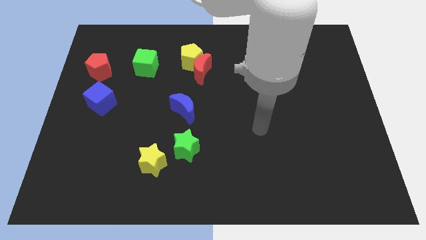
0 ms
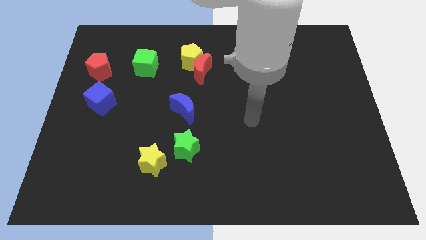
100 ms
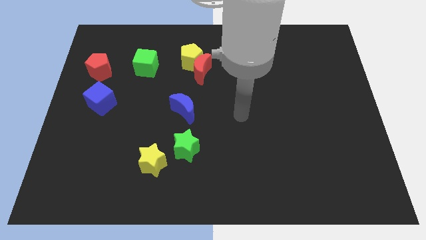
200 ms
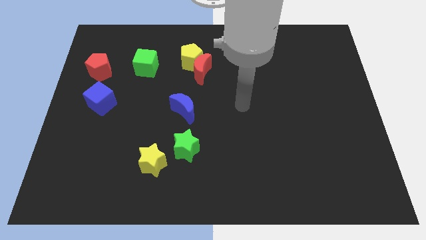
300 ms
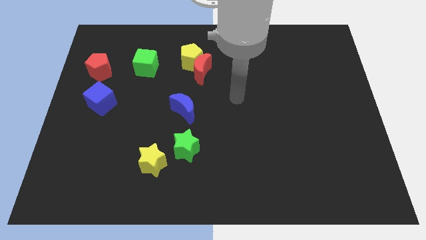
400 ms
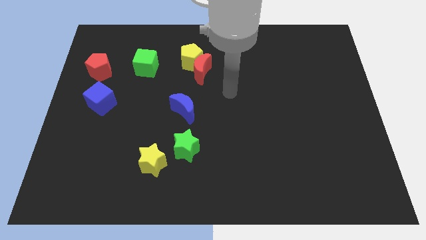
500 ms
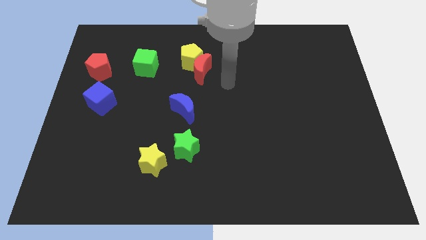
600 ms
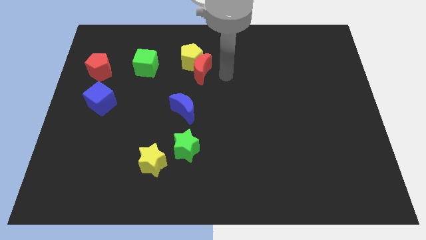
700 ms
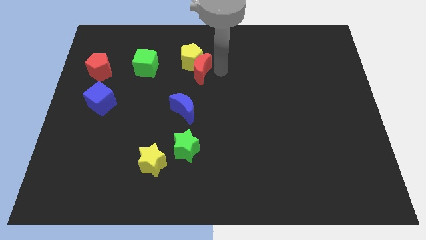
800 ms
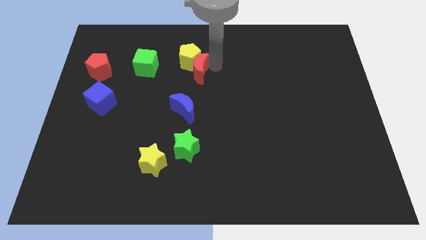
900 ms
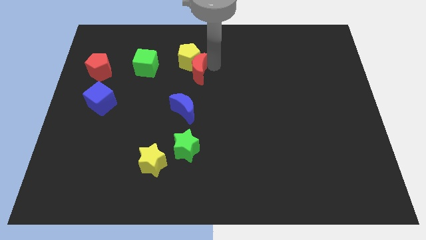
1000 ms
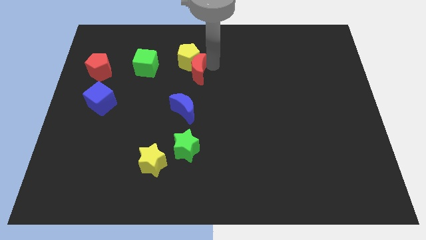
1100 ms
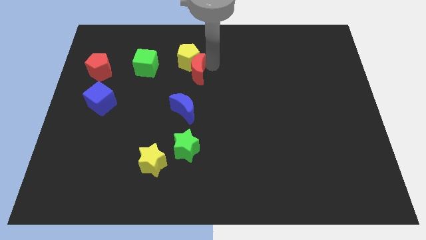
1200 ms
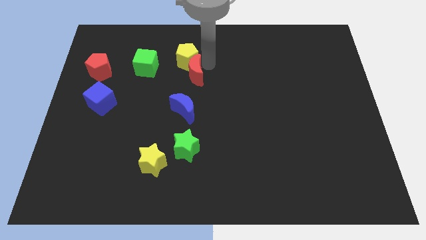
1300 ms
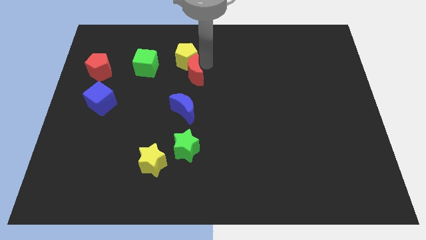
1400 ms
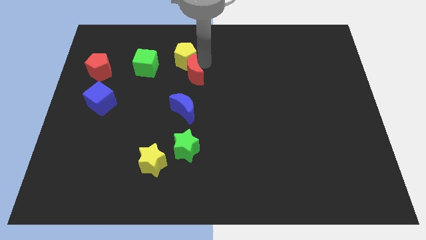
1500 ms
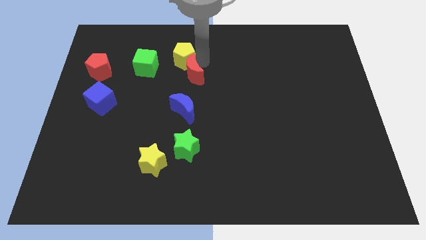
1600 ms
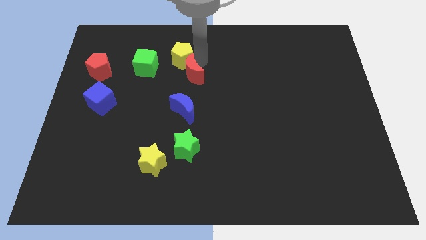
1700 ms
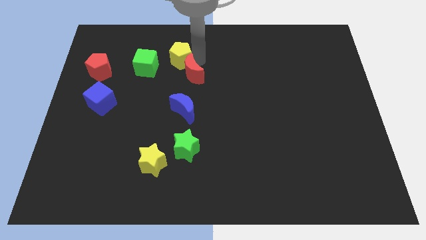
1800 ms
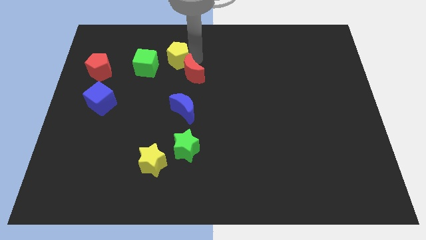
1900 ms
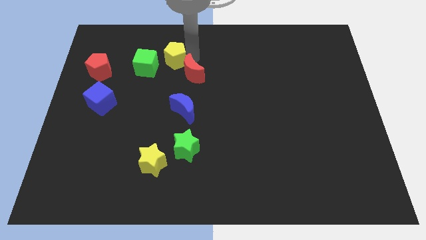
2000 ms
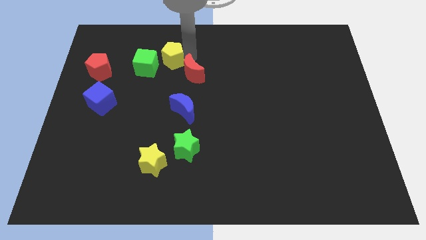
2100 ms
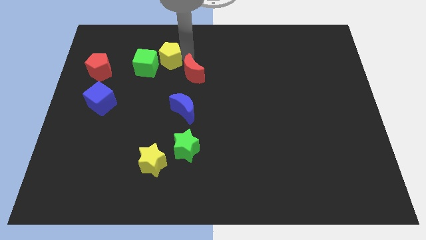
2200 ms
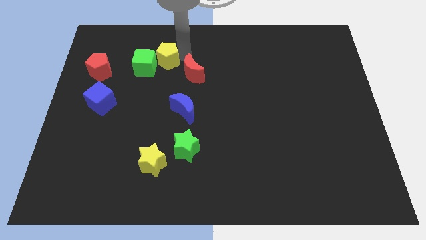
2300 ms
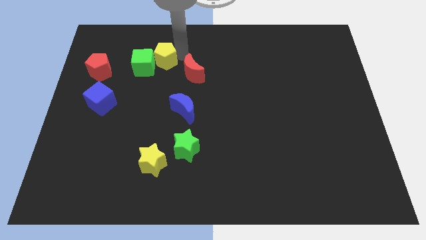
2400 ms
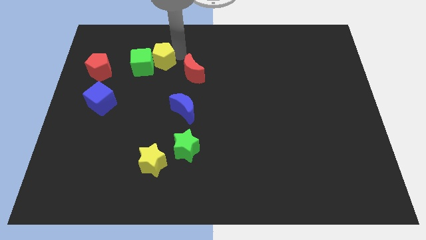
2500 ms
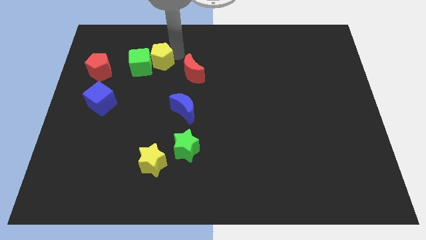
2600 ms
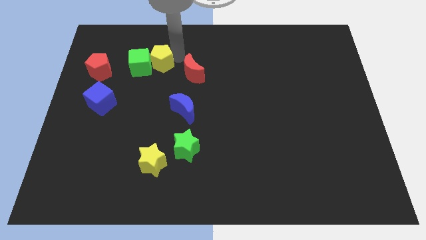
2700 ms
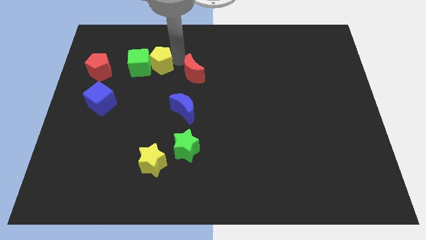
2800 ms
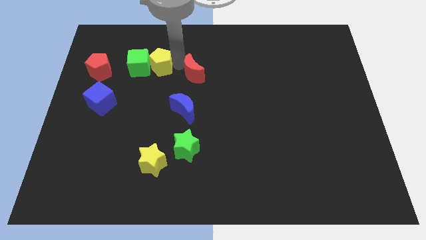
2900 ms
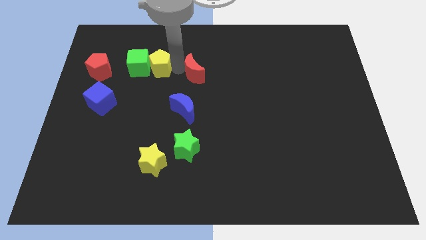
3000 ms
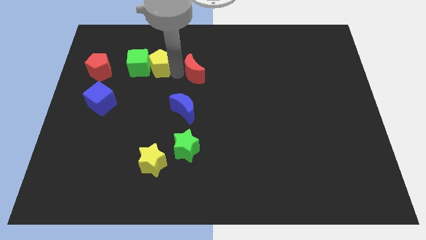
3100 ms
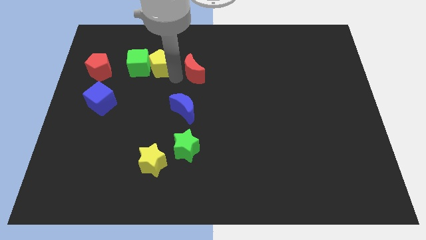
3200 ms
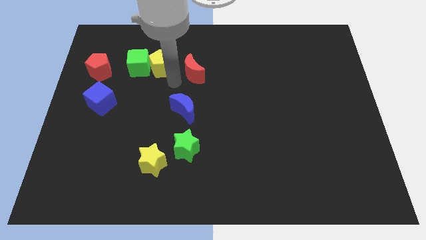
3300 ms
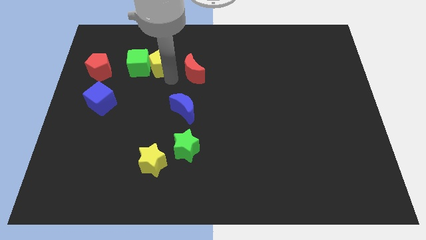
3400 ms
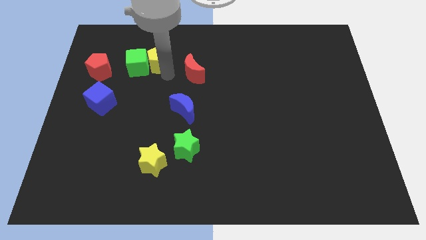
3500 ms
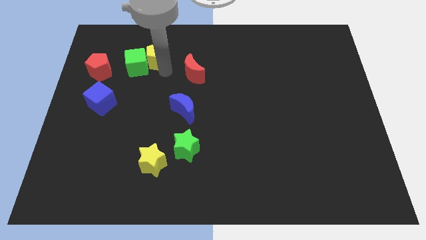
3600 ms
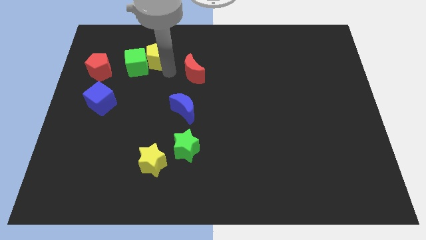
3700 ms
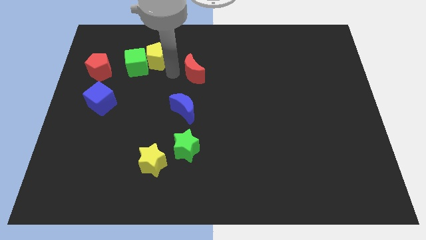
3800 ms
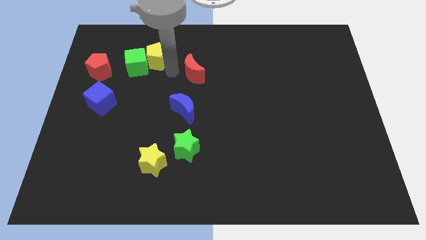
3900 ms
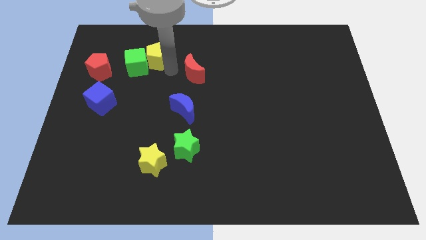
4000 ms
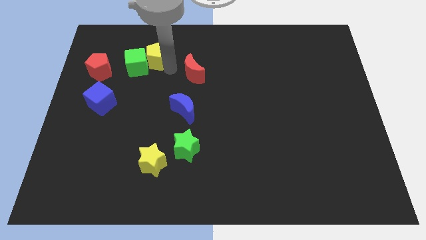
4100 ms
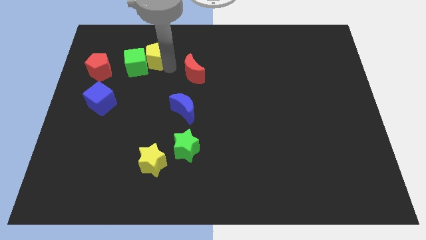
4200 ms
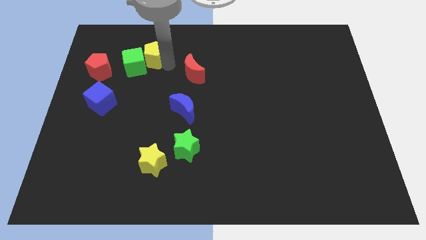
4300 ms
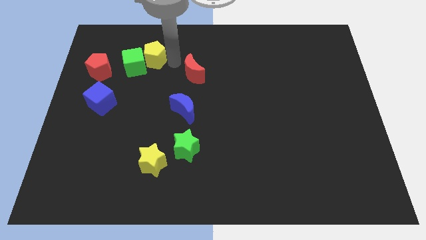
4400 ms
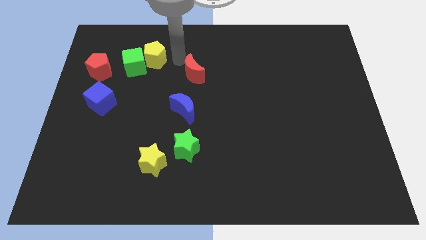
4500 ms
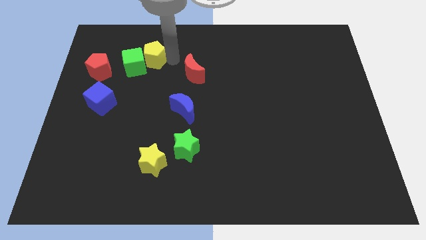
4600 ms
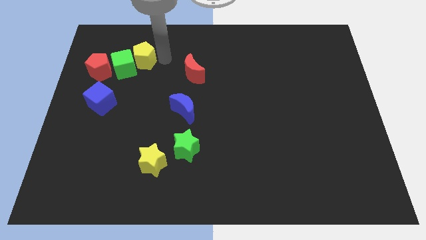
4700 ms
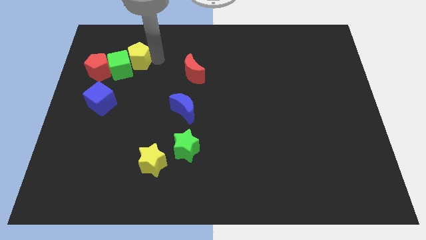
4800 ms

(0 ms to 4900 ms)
slide the yellow pentagon to the top right of the red pentagon

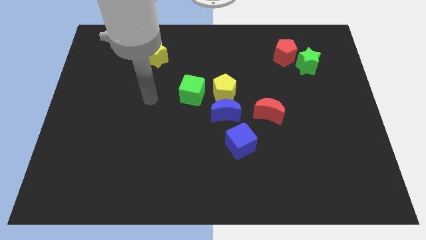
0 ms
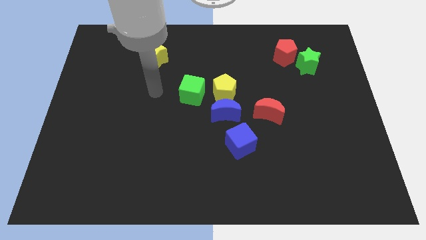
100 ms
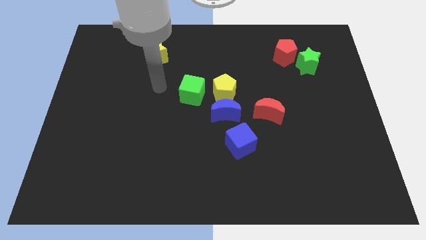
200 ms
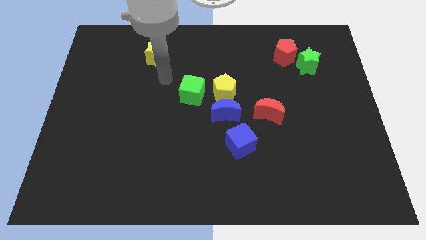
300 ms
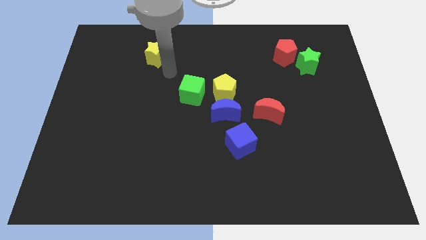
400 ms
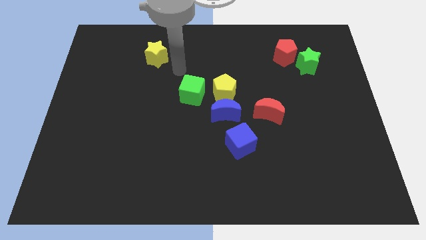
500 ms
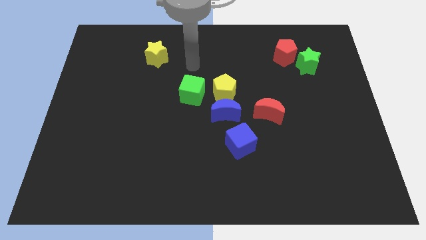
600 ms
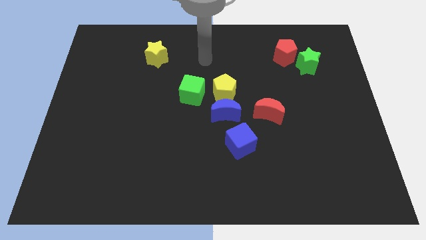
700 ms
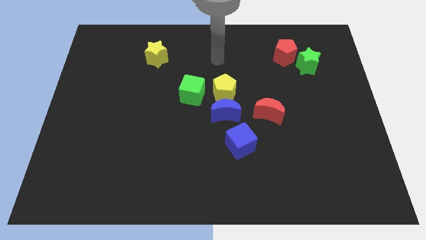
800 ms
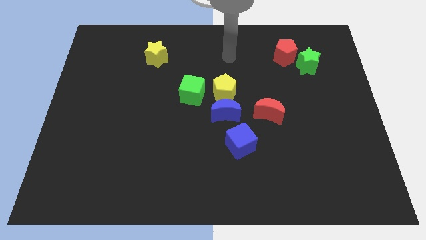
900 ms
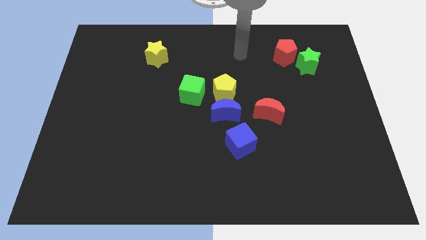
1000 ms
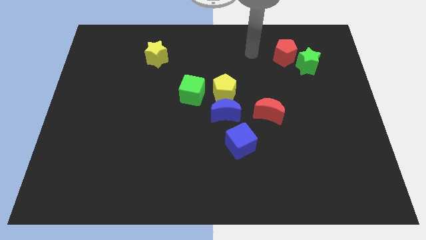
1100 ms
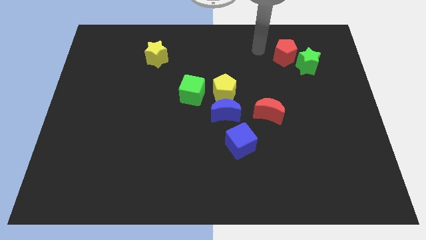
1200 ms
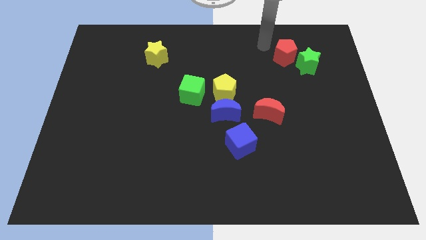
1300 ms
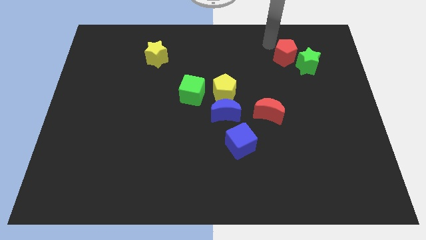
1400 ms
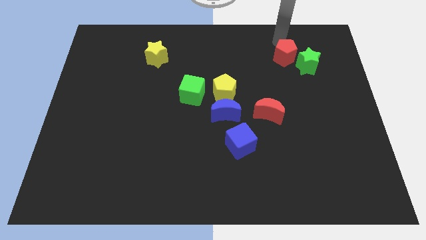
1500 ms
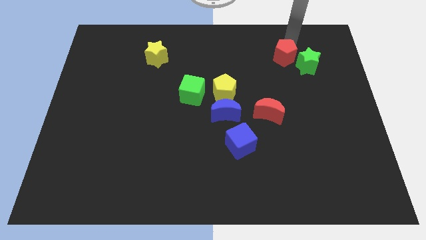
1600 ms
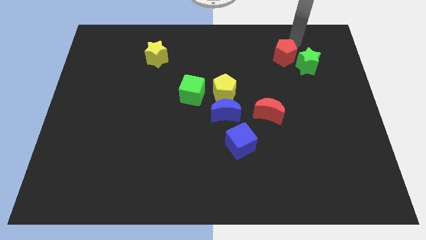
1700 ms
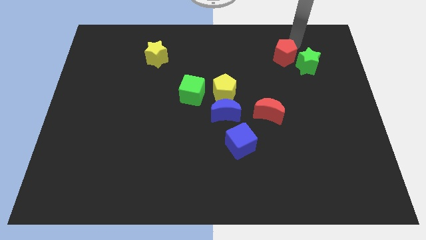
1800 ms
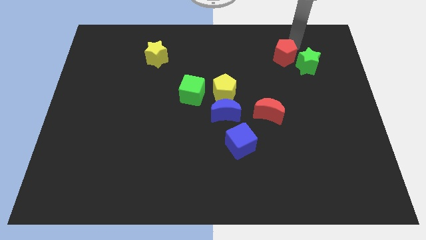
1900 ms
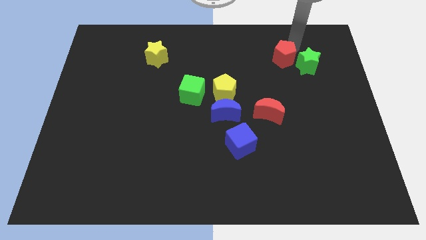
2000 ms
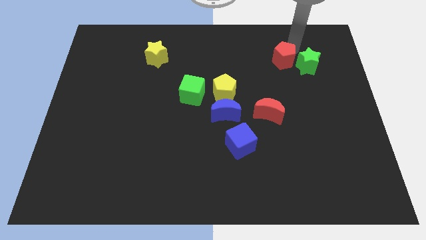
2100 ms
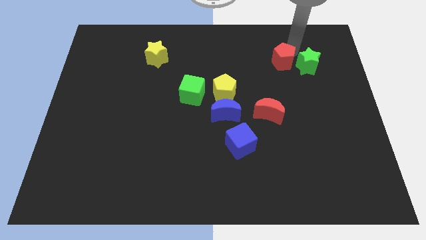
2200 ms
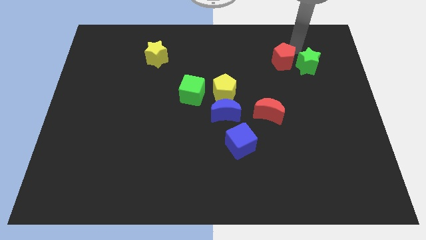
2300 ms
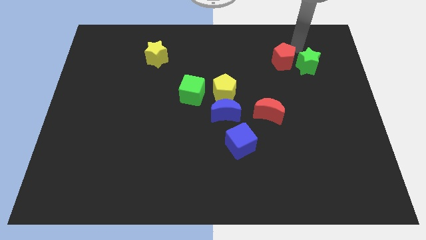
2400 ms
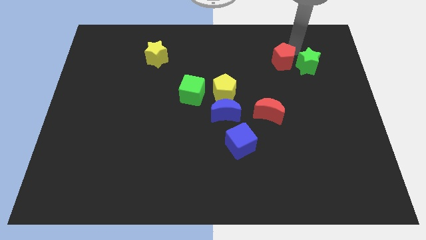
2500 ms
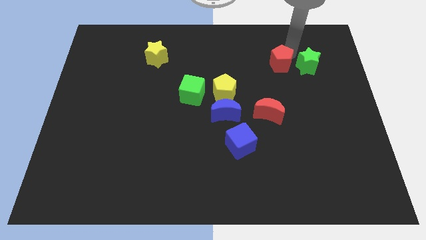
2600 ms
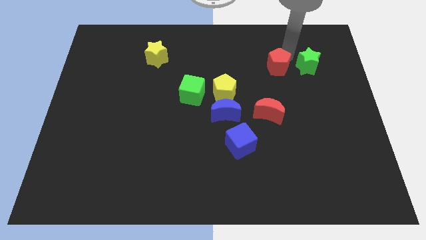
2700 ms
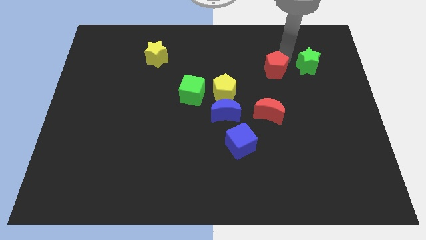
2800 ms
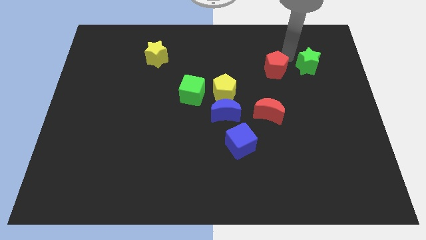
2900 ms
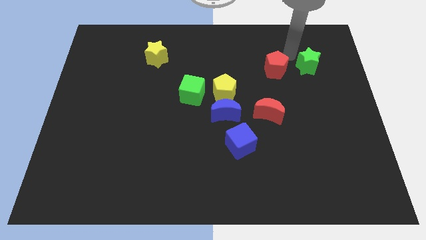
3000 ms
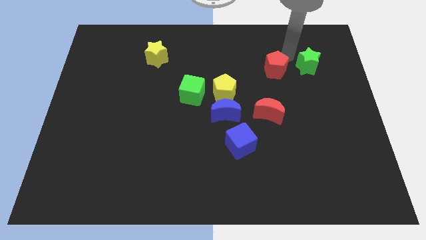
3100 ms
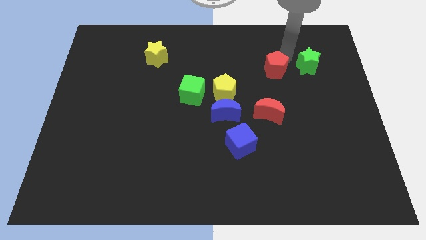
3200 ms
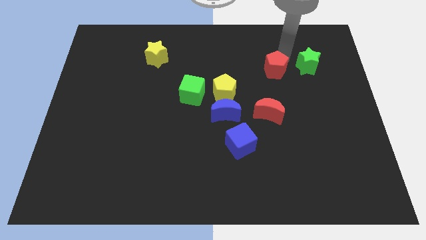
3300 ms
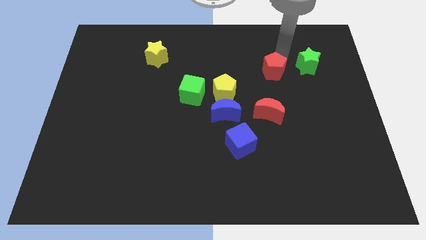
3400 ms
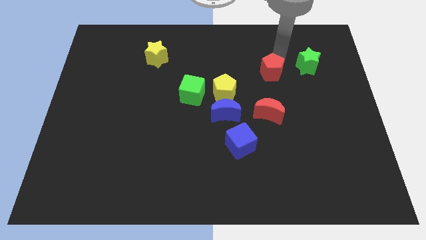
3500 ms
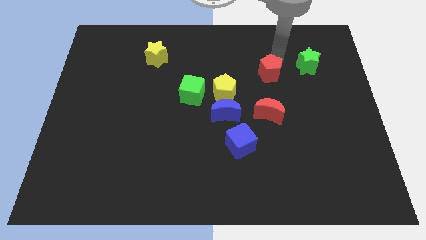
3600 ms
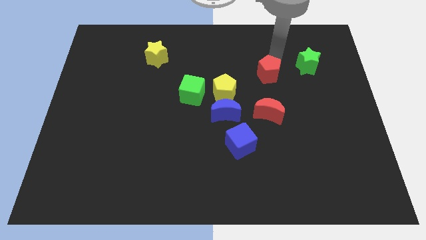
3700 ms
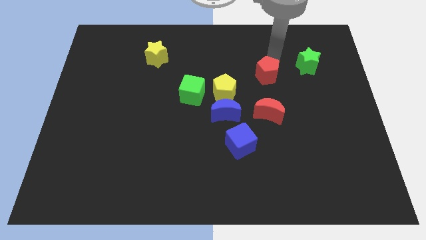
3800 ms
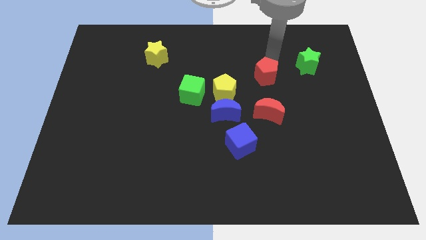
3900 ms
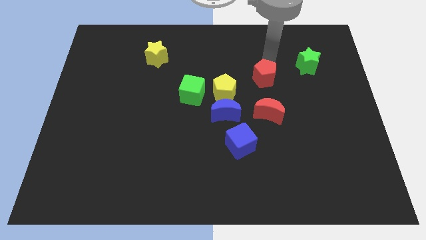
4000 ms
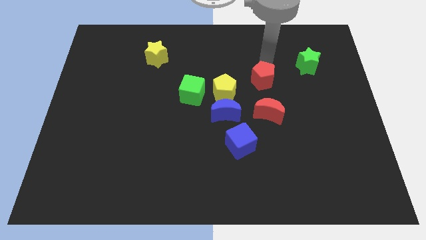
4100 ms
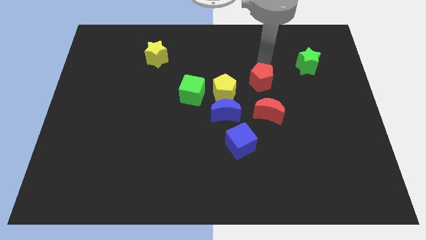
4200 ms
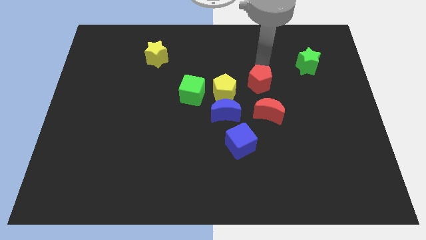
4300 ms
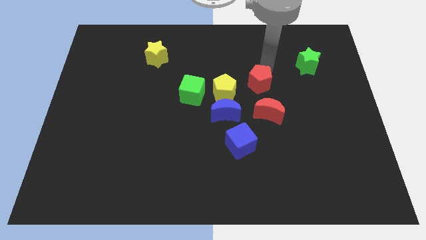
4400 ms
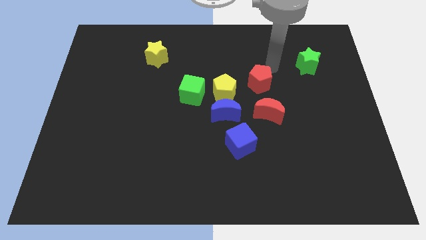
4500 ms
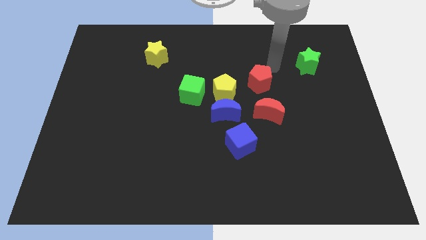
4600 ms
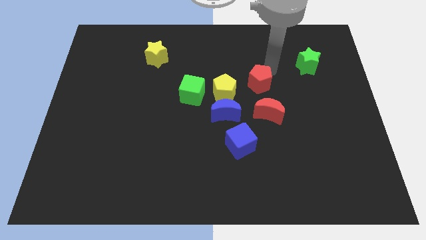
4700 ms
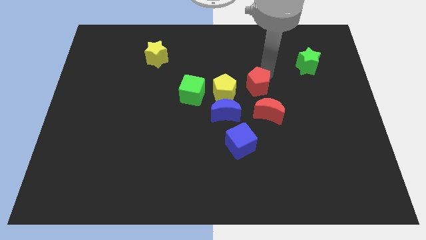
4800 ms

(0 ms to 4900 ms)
push the red pentagon diagonally up and to the left of the red moon
